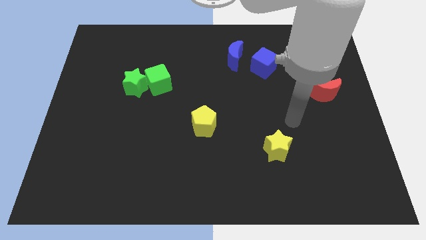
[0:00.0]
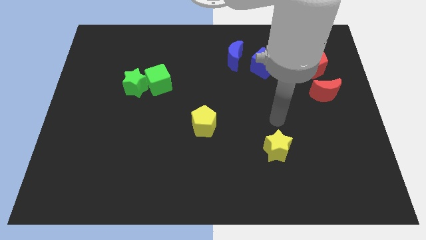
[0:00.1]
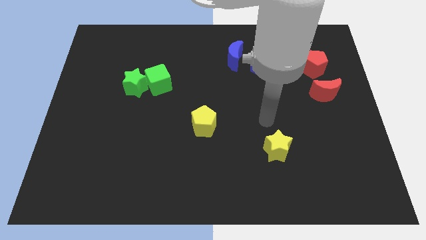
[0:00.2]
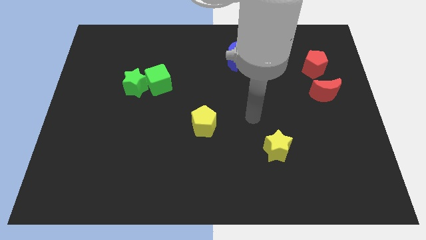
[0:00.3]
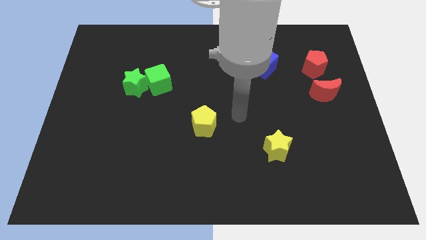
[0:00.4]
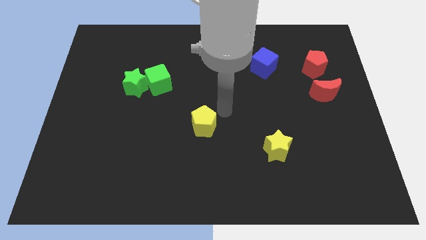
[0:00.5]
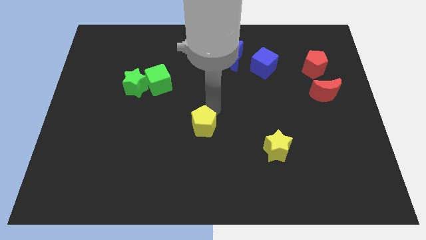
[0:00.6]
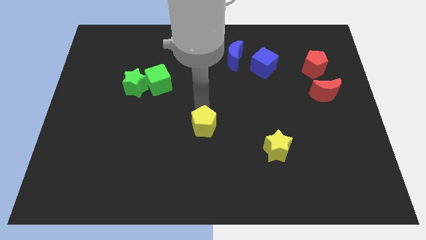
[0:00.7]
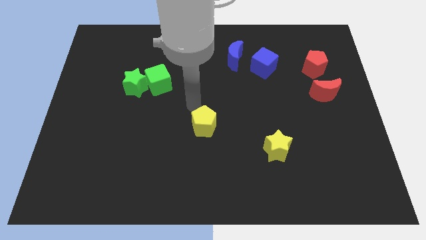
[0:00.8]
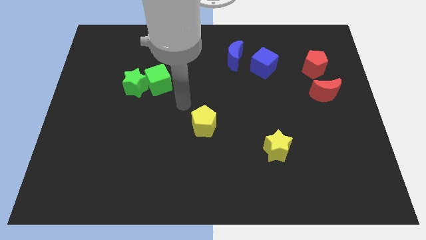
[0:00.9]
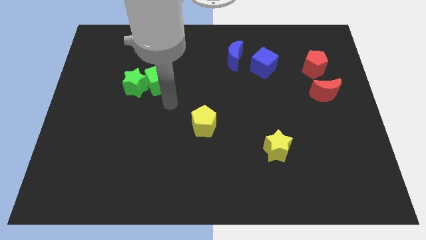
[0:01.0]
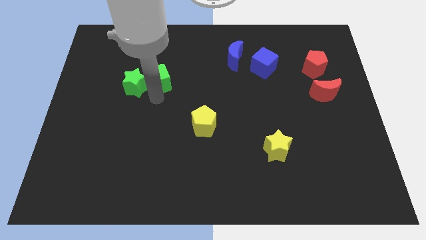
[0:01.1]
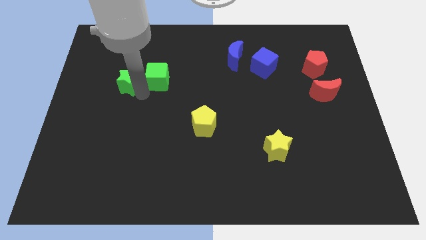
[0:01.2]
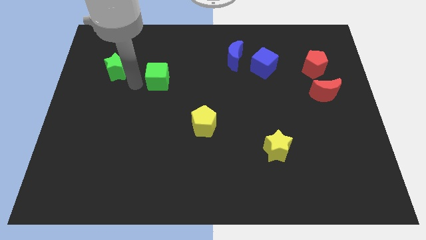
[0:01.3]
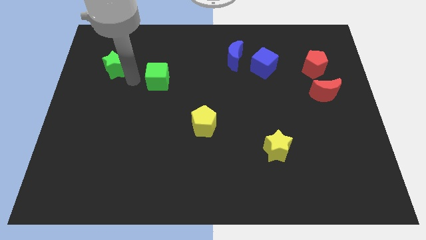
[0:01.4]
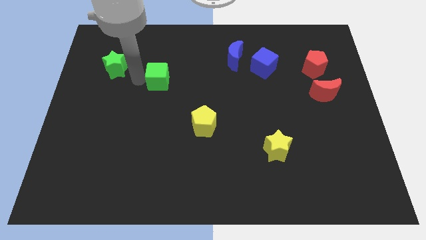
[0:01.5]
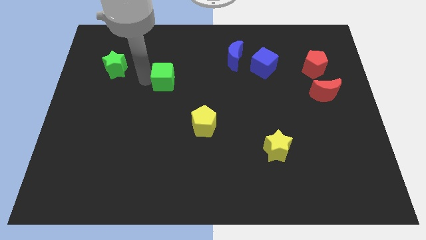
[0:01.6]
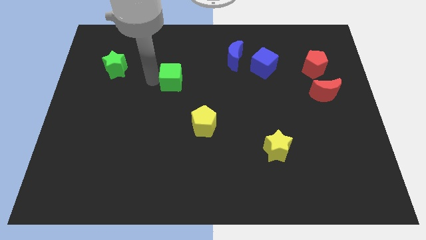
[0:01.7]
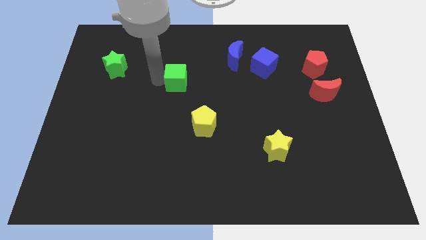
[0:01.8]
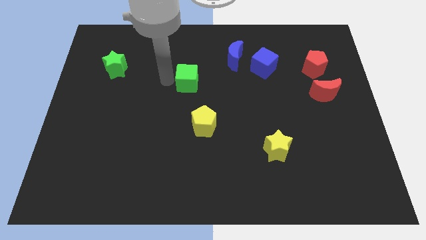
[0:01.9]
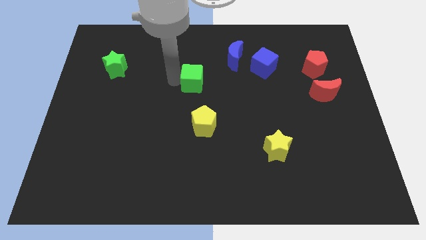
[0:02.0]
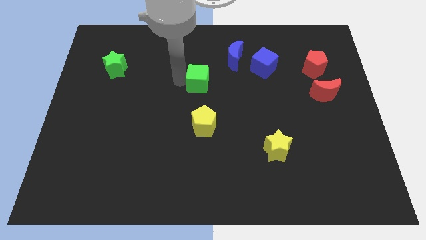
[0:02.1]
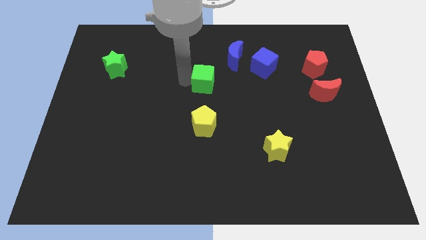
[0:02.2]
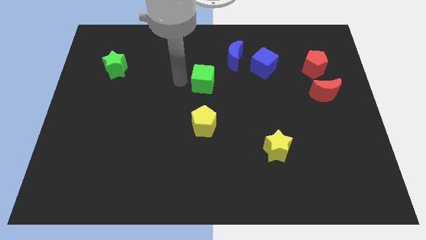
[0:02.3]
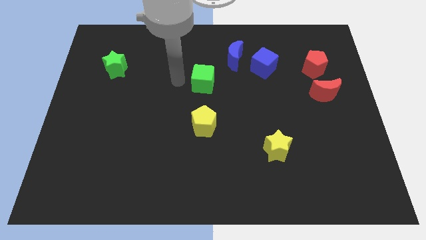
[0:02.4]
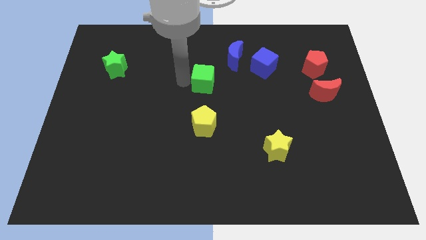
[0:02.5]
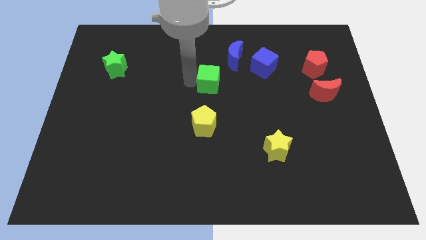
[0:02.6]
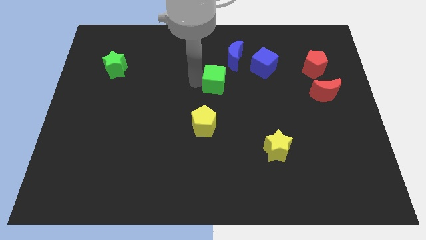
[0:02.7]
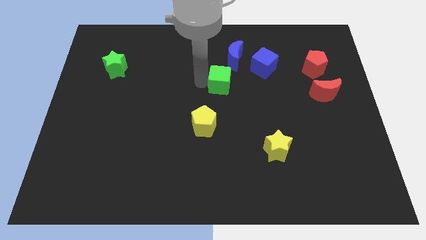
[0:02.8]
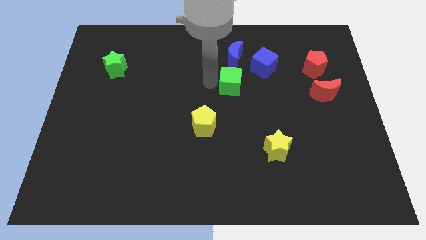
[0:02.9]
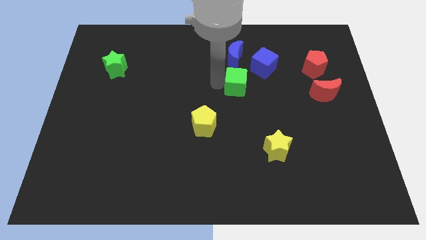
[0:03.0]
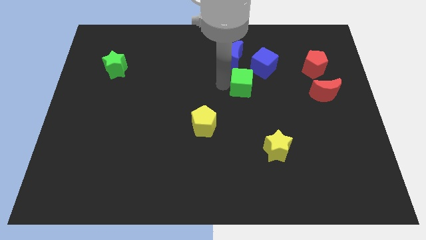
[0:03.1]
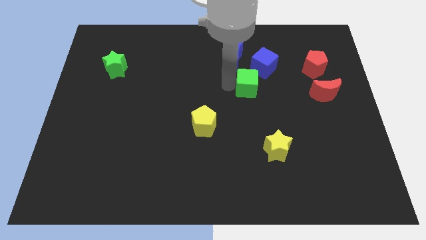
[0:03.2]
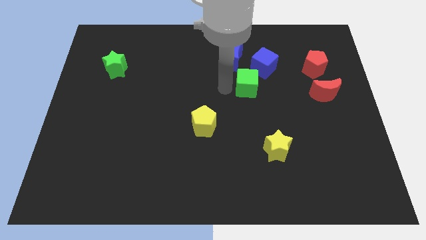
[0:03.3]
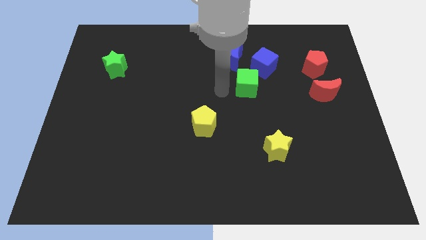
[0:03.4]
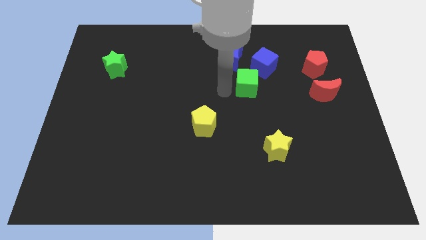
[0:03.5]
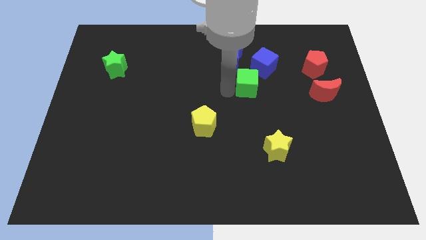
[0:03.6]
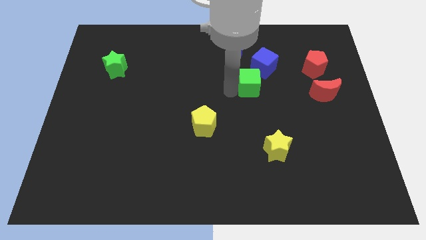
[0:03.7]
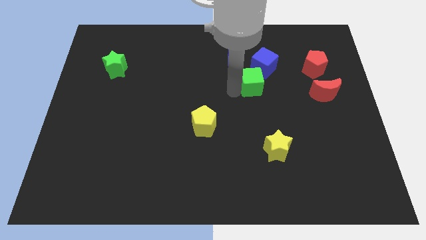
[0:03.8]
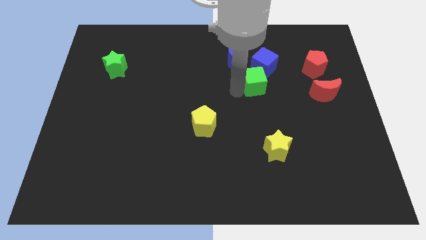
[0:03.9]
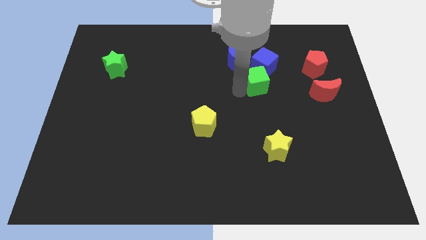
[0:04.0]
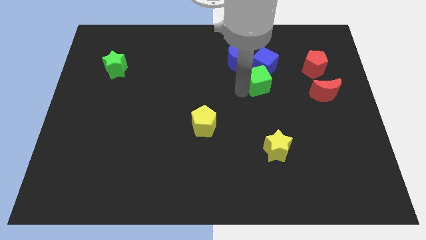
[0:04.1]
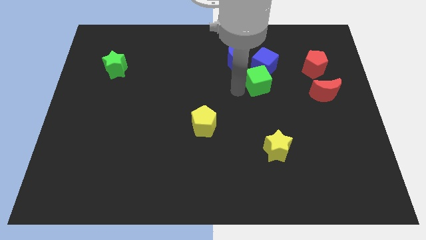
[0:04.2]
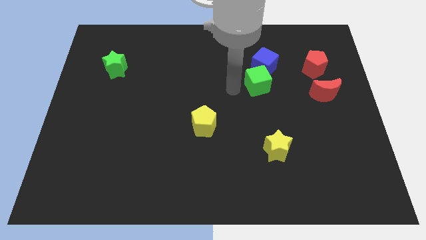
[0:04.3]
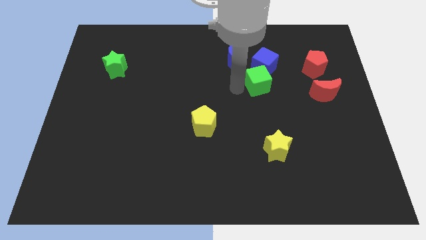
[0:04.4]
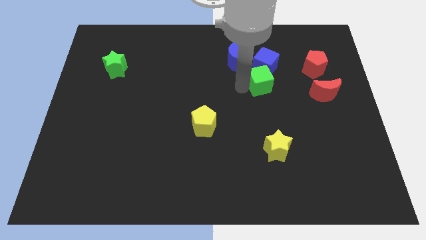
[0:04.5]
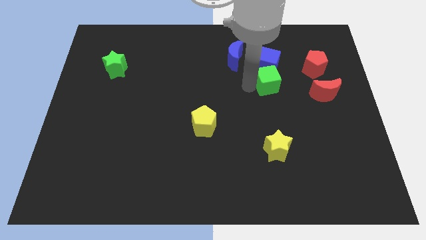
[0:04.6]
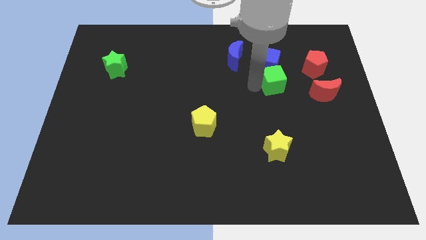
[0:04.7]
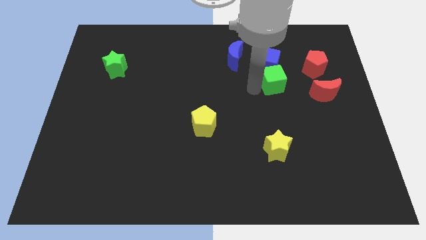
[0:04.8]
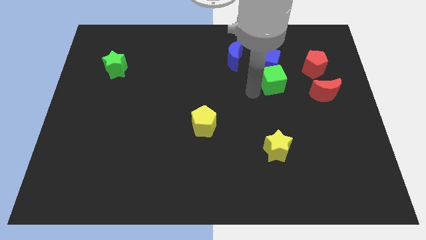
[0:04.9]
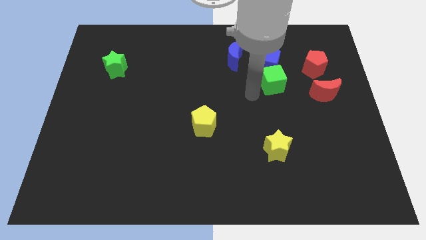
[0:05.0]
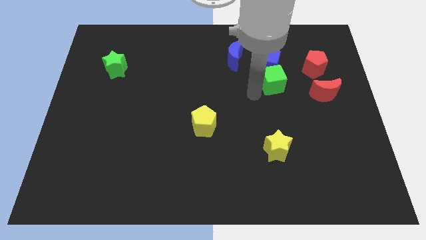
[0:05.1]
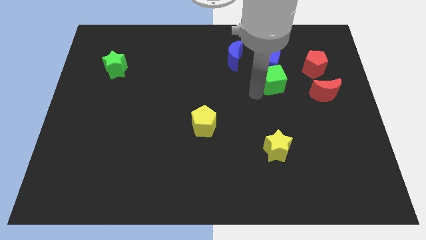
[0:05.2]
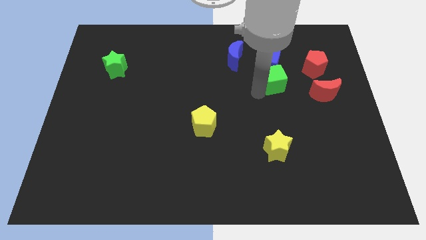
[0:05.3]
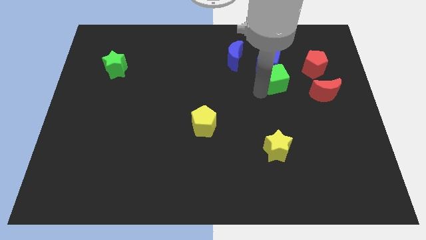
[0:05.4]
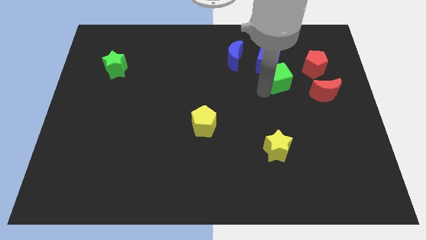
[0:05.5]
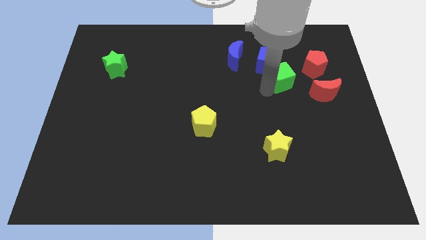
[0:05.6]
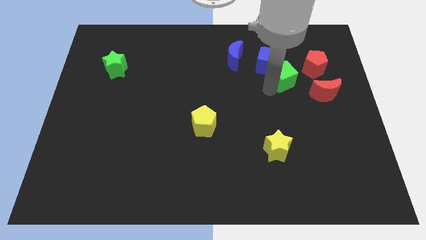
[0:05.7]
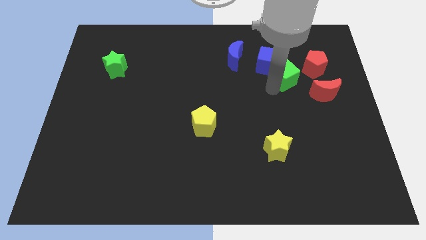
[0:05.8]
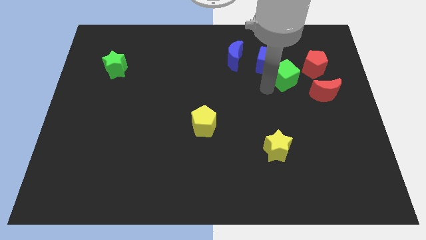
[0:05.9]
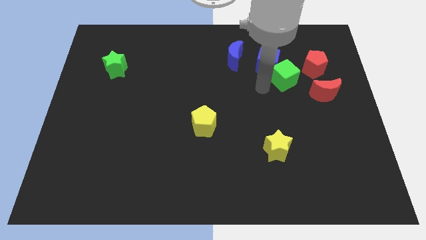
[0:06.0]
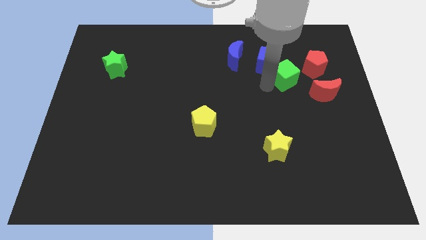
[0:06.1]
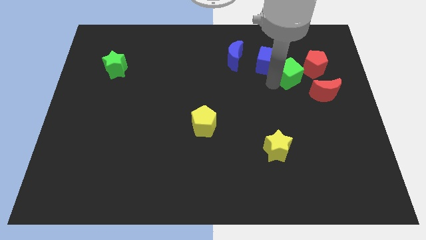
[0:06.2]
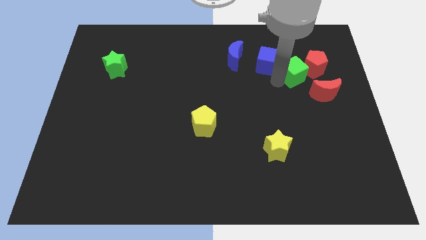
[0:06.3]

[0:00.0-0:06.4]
slide the green cube close to the red pentagon

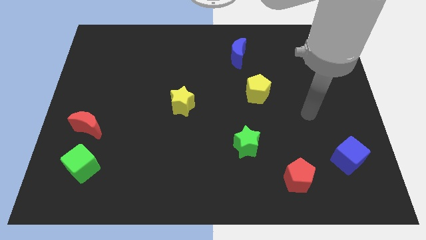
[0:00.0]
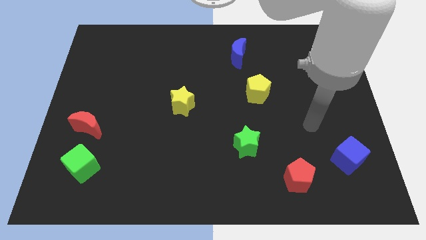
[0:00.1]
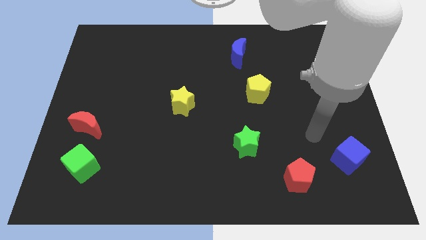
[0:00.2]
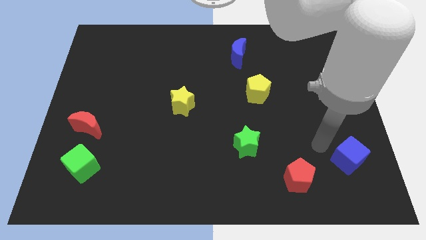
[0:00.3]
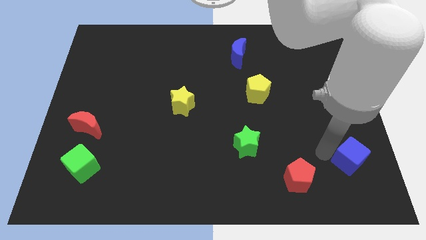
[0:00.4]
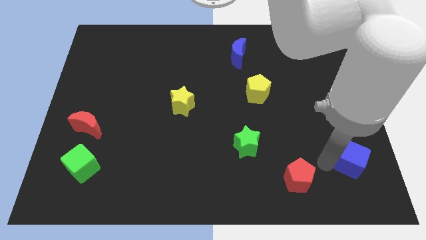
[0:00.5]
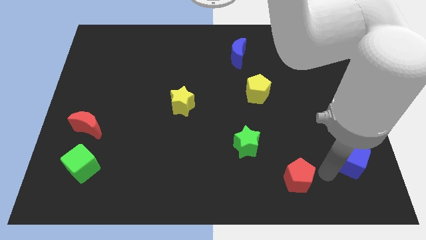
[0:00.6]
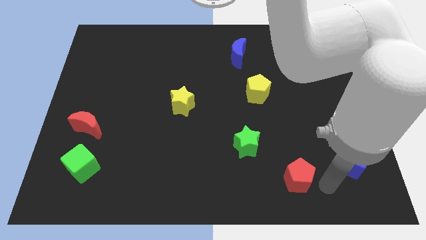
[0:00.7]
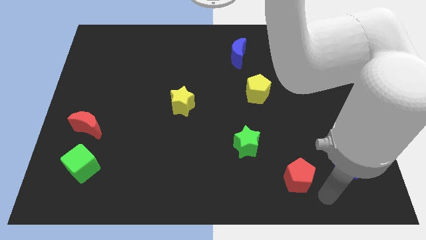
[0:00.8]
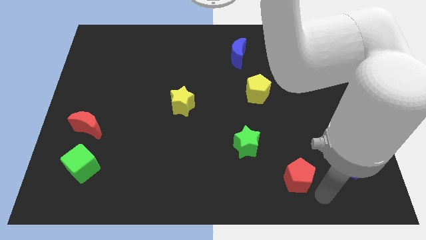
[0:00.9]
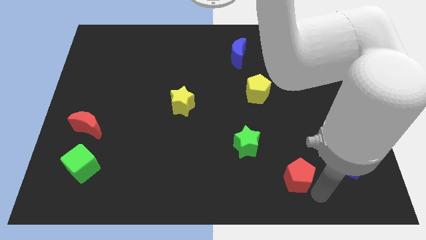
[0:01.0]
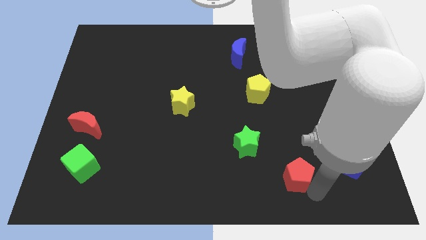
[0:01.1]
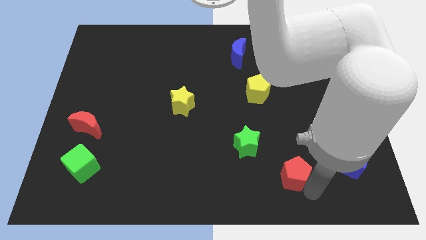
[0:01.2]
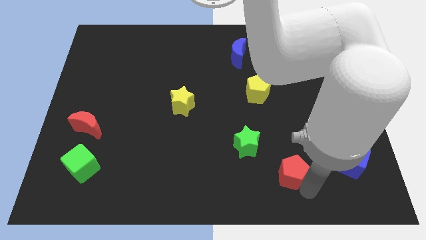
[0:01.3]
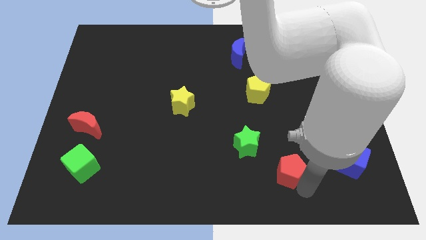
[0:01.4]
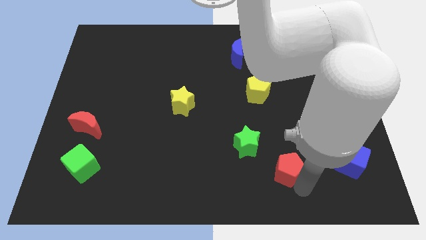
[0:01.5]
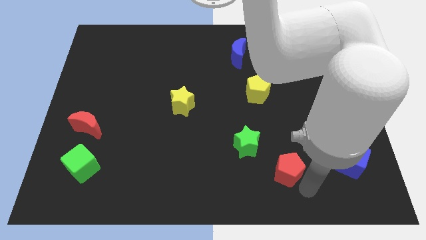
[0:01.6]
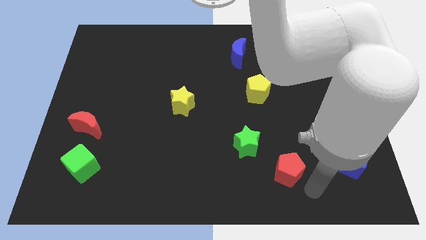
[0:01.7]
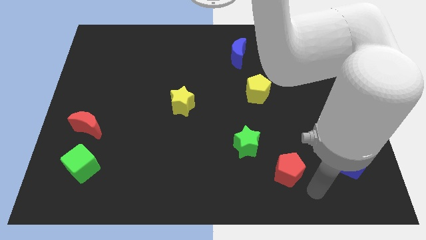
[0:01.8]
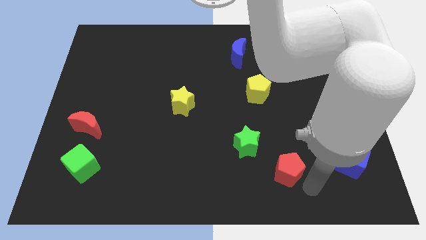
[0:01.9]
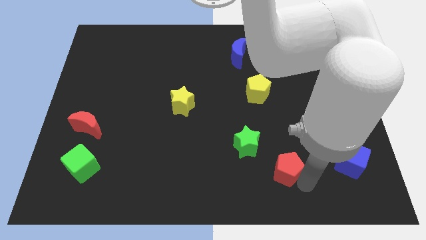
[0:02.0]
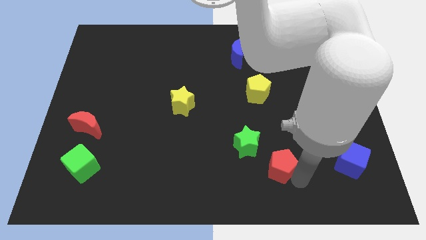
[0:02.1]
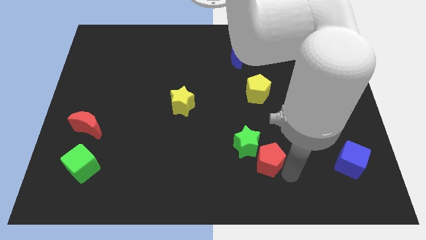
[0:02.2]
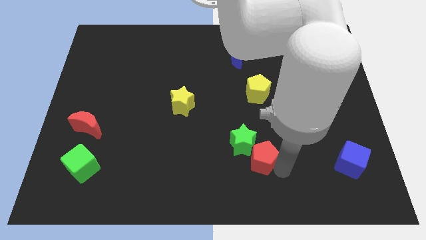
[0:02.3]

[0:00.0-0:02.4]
slide the red pentagon towards the green star
